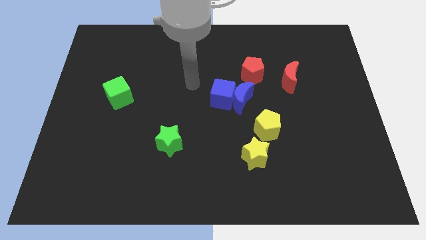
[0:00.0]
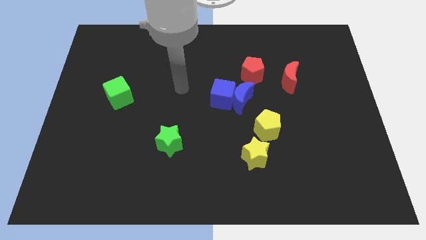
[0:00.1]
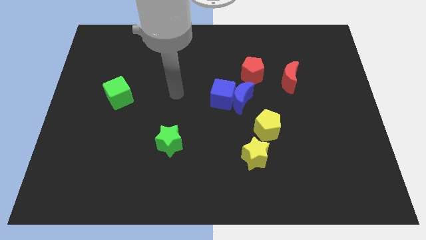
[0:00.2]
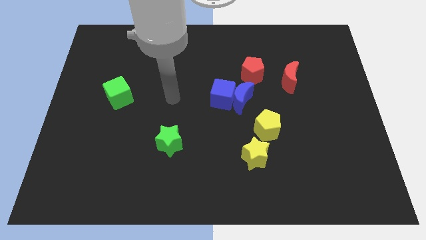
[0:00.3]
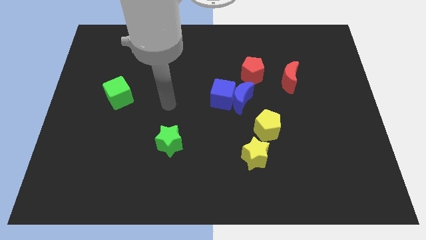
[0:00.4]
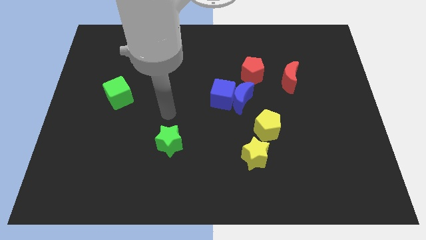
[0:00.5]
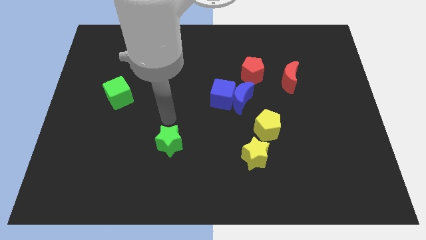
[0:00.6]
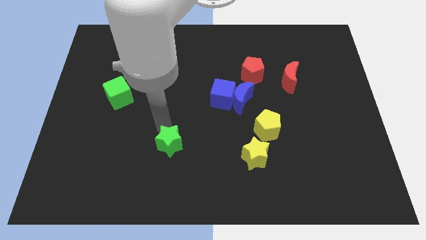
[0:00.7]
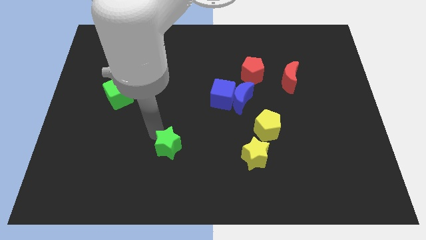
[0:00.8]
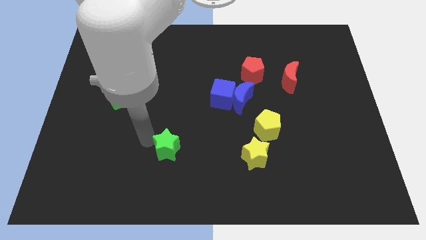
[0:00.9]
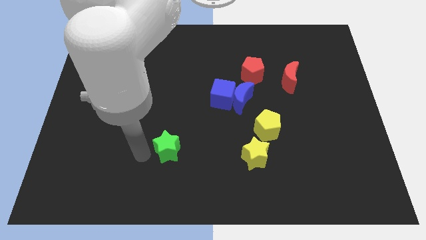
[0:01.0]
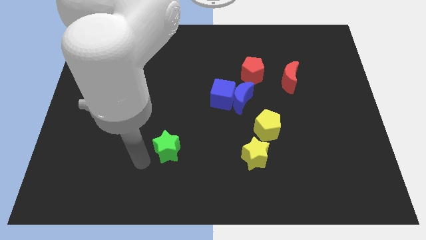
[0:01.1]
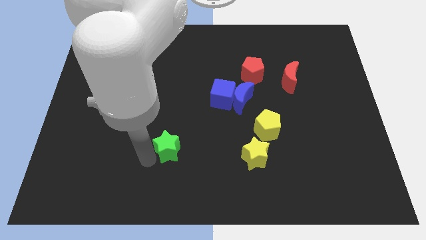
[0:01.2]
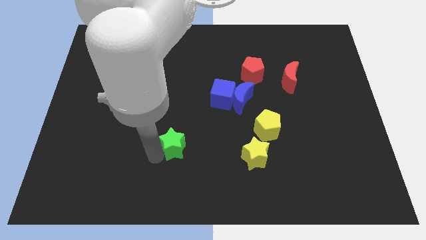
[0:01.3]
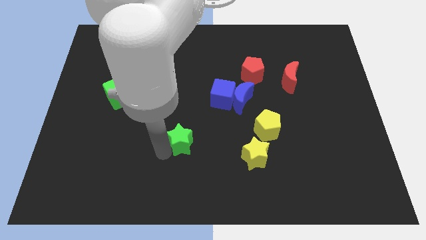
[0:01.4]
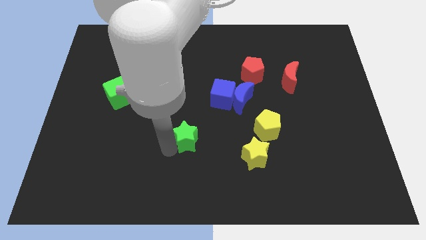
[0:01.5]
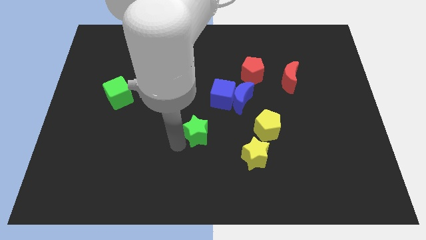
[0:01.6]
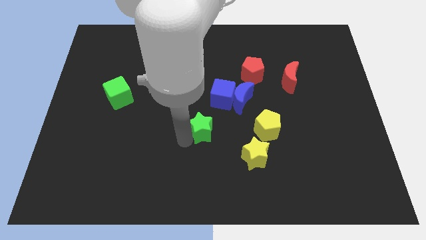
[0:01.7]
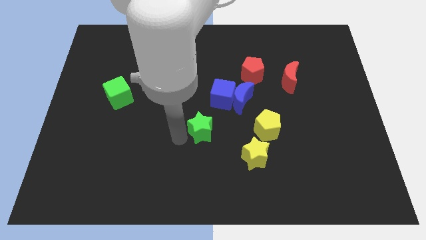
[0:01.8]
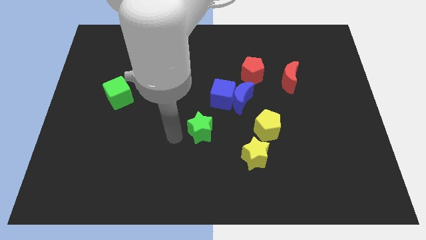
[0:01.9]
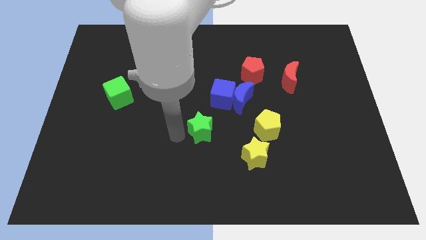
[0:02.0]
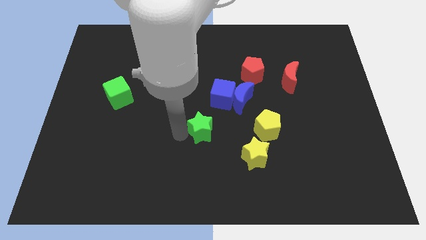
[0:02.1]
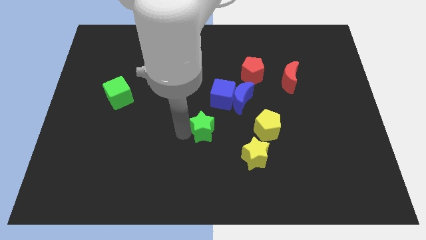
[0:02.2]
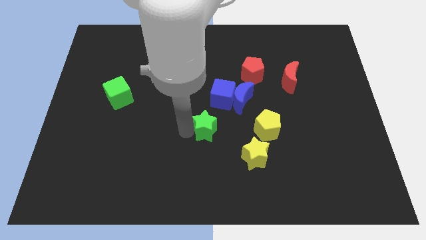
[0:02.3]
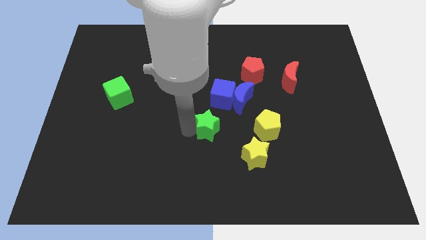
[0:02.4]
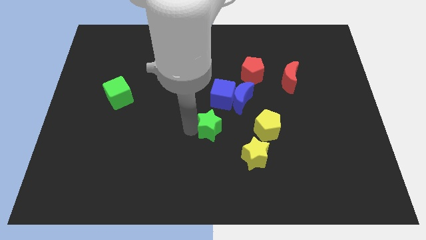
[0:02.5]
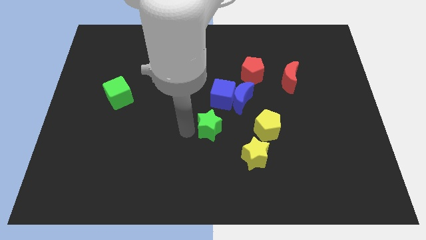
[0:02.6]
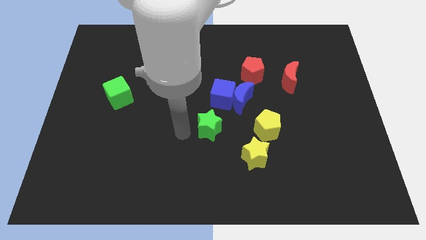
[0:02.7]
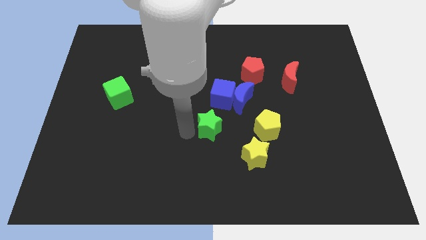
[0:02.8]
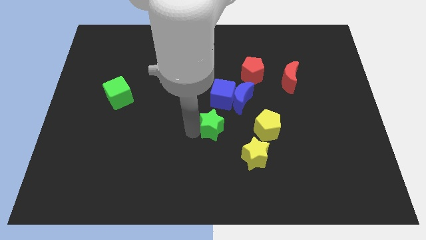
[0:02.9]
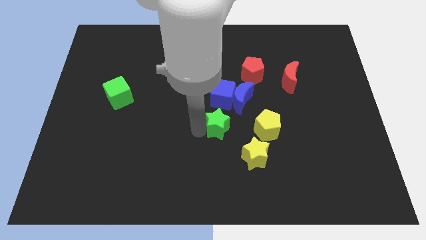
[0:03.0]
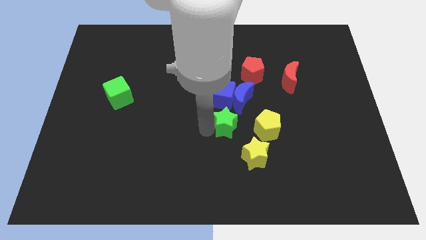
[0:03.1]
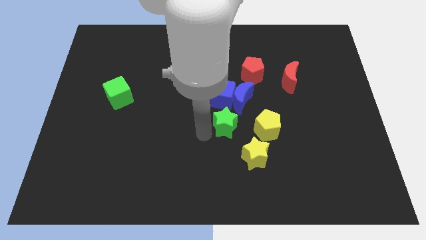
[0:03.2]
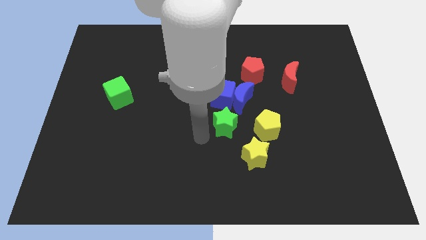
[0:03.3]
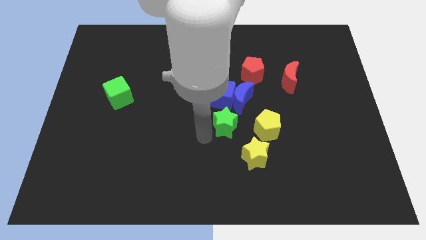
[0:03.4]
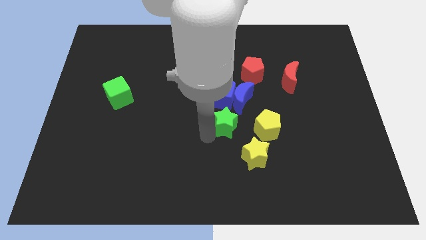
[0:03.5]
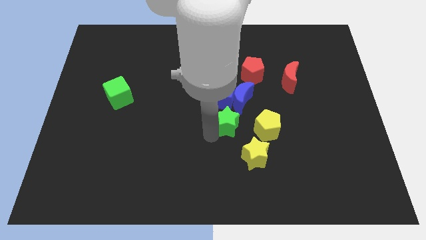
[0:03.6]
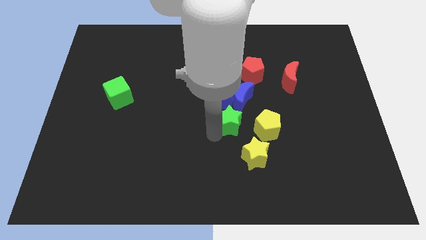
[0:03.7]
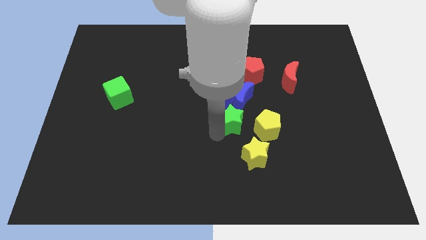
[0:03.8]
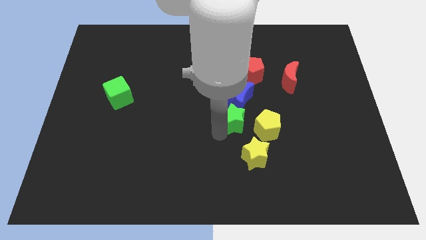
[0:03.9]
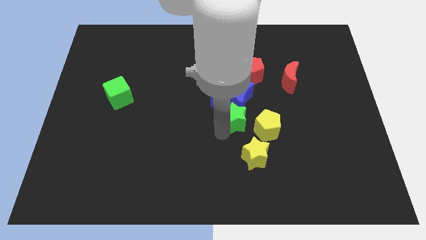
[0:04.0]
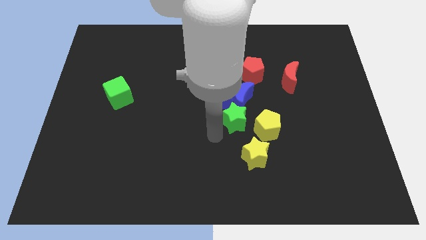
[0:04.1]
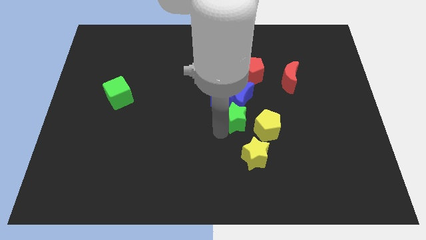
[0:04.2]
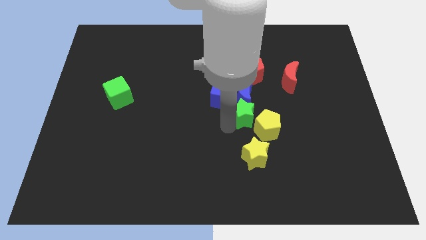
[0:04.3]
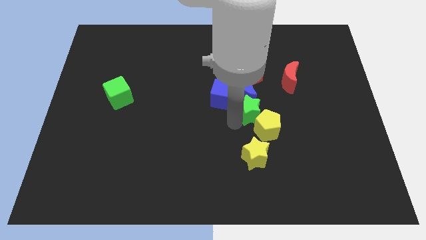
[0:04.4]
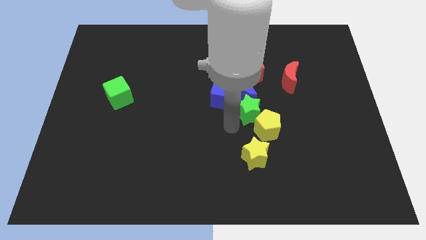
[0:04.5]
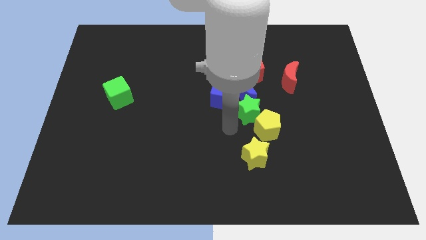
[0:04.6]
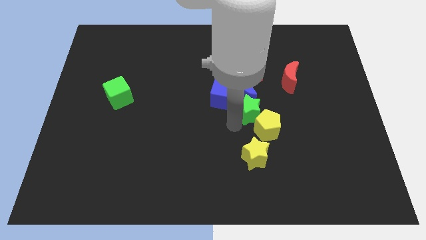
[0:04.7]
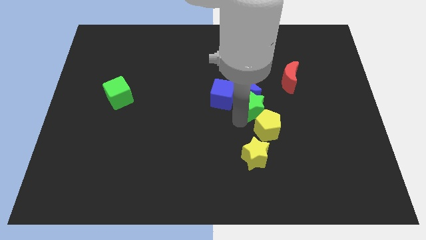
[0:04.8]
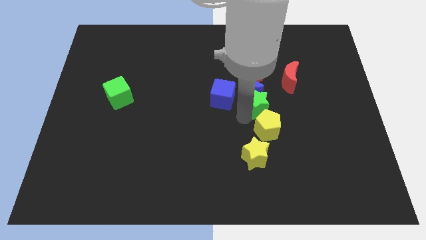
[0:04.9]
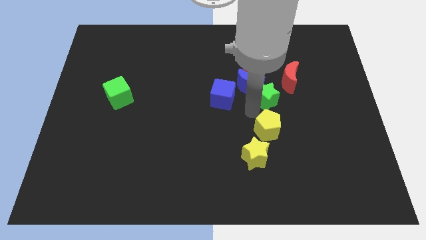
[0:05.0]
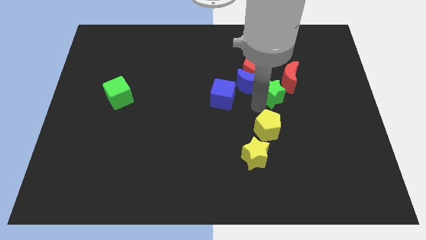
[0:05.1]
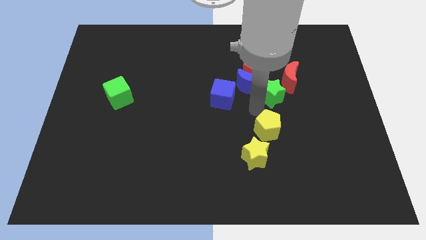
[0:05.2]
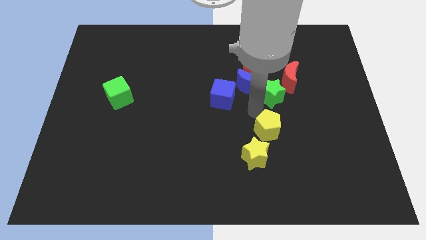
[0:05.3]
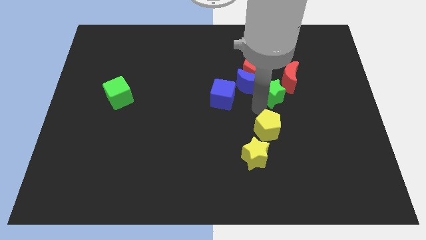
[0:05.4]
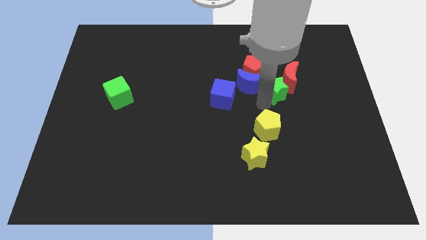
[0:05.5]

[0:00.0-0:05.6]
push the green star to the red moon

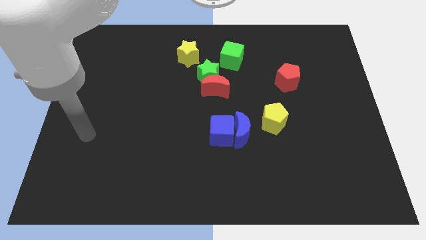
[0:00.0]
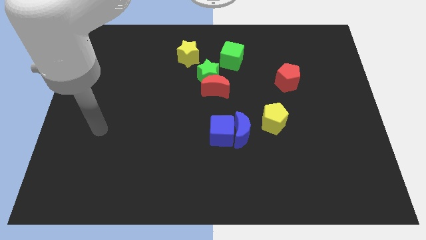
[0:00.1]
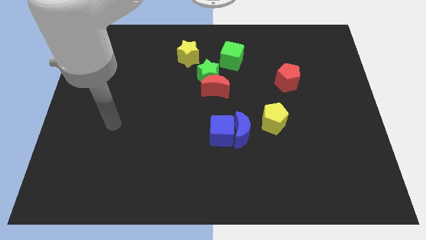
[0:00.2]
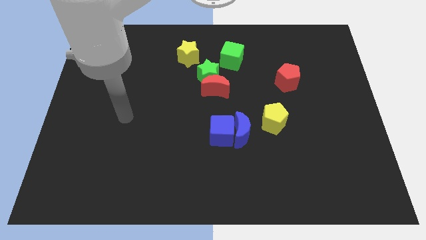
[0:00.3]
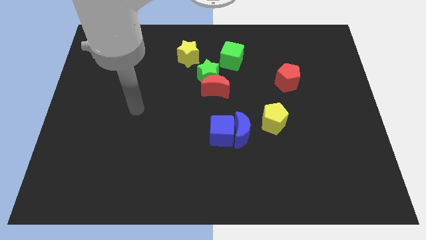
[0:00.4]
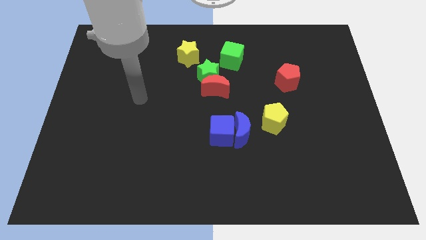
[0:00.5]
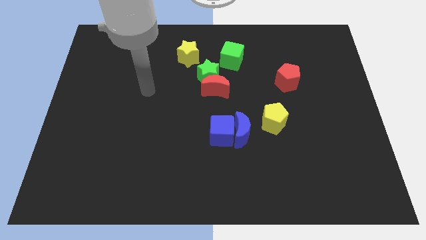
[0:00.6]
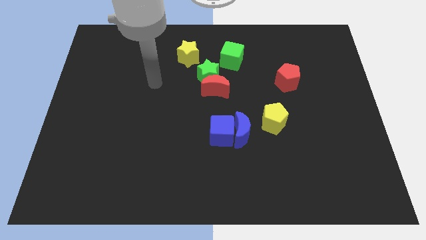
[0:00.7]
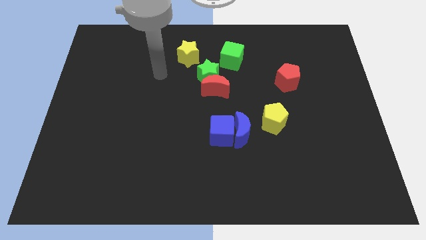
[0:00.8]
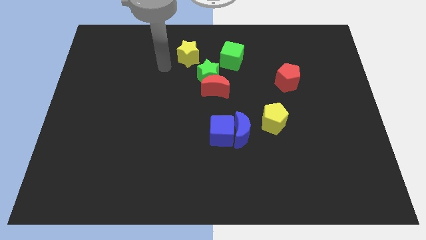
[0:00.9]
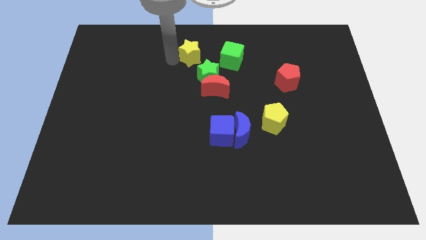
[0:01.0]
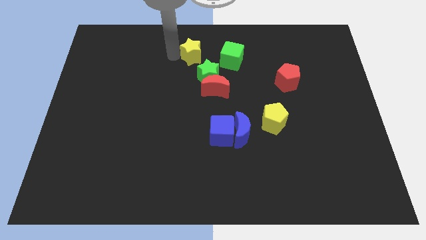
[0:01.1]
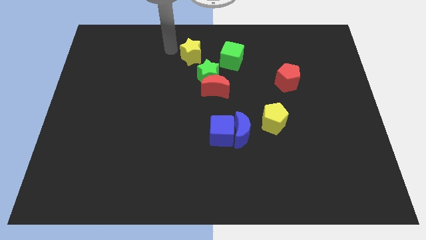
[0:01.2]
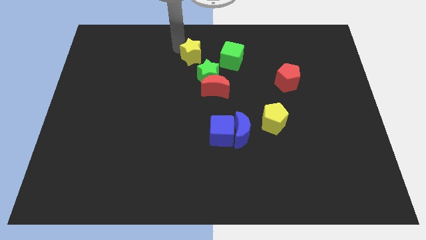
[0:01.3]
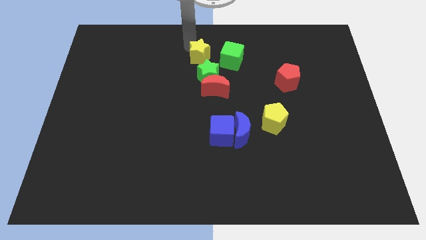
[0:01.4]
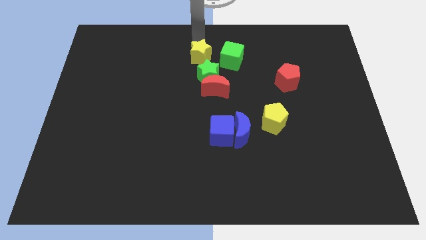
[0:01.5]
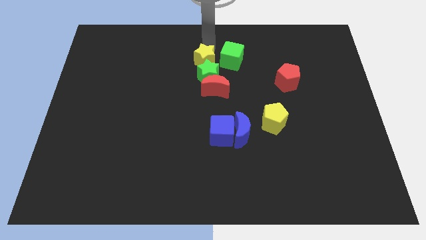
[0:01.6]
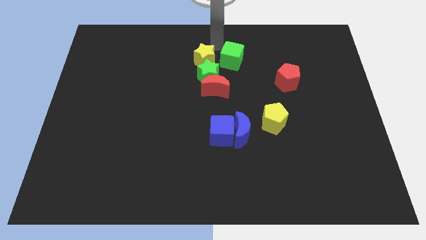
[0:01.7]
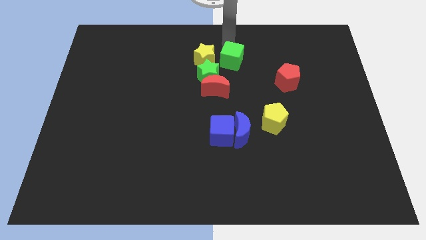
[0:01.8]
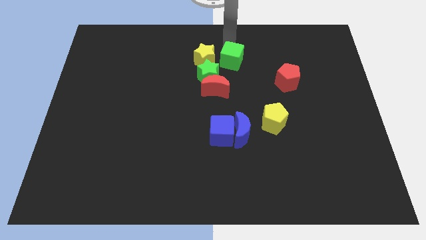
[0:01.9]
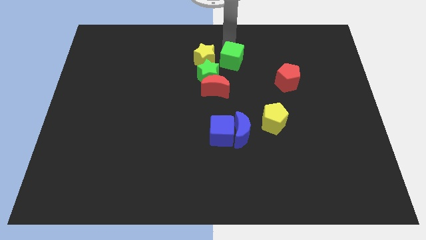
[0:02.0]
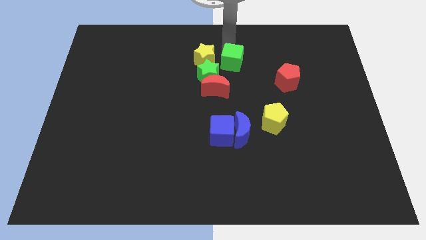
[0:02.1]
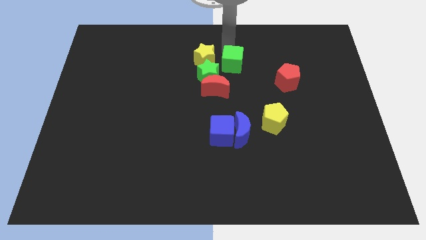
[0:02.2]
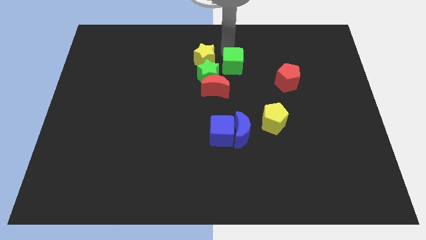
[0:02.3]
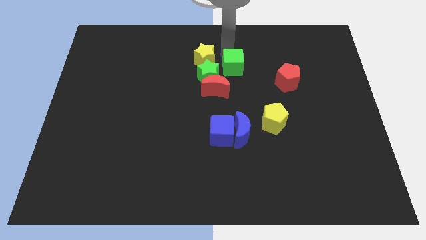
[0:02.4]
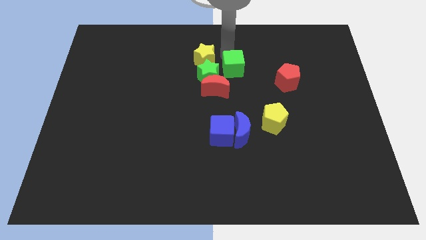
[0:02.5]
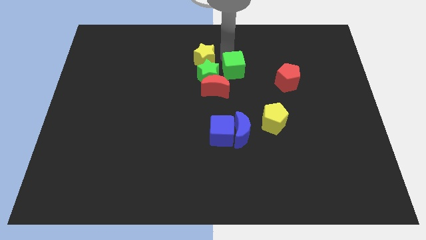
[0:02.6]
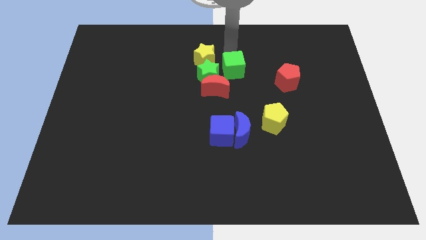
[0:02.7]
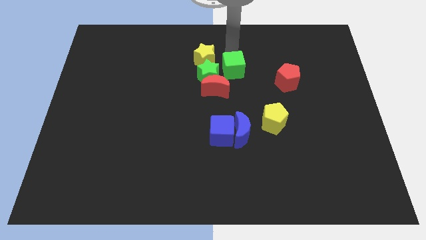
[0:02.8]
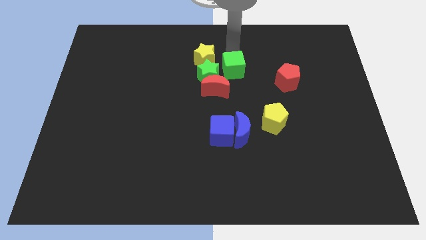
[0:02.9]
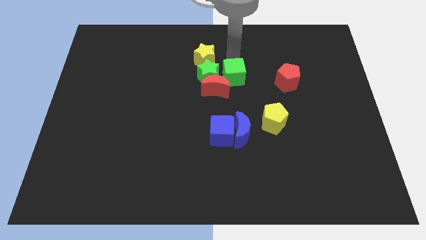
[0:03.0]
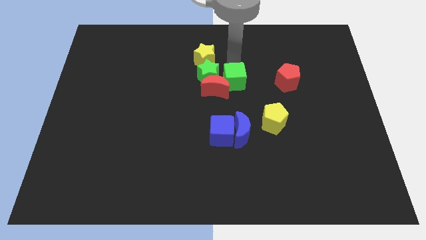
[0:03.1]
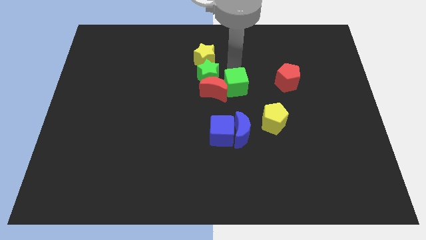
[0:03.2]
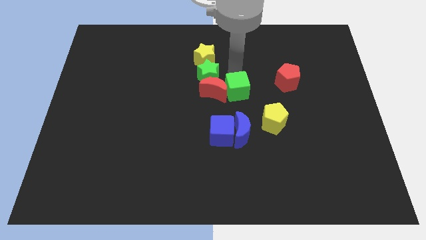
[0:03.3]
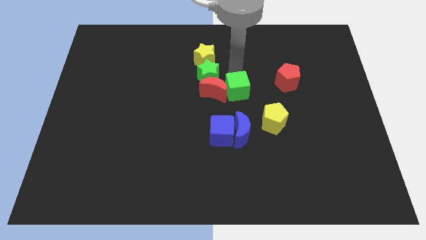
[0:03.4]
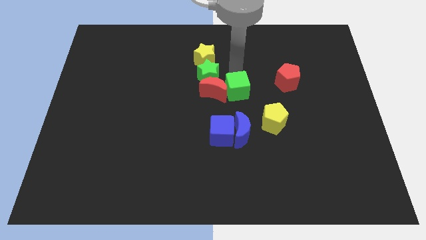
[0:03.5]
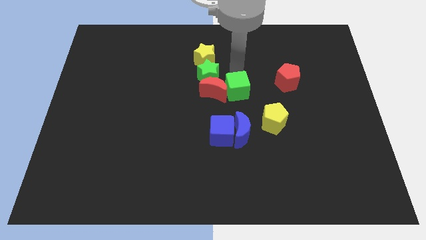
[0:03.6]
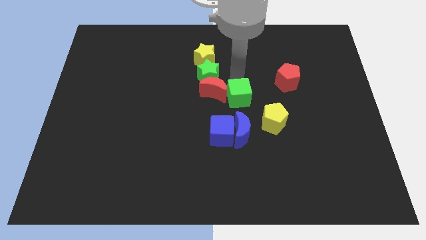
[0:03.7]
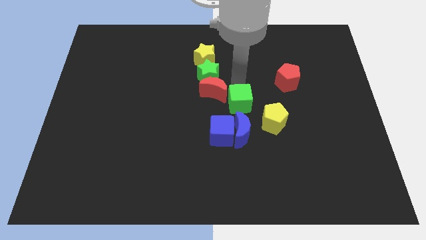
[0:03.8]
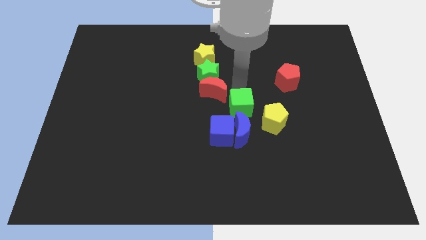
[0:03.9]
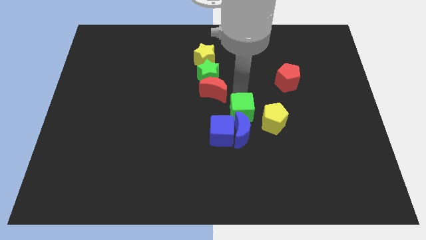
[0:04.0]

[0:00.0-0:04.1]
push the green cube towards the blue moon
